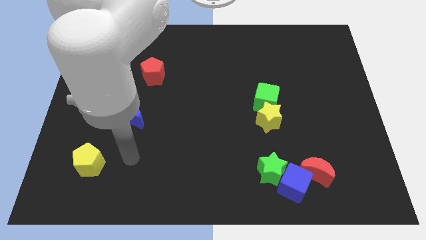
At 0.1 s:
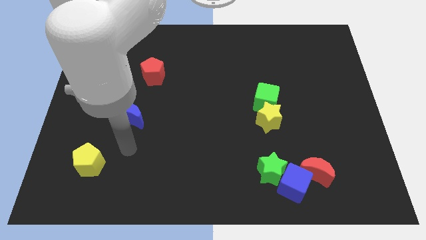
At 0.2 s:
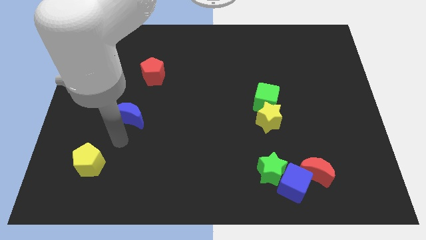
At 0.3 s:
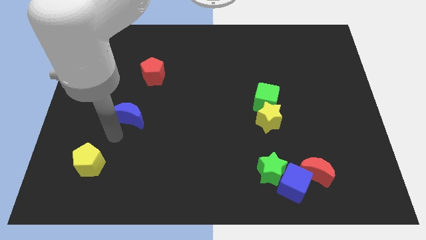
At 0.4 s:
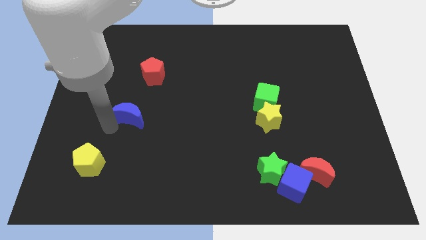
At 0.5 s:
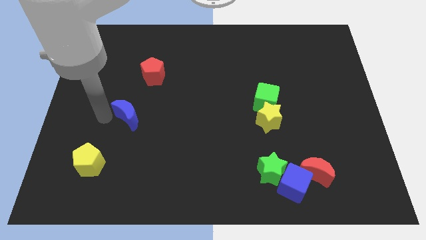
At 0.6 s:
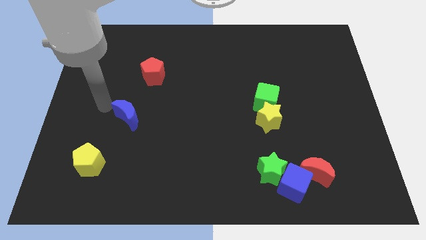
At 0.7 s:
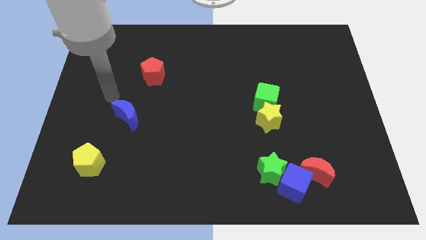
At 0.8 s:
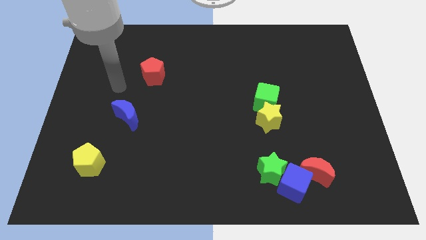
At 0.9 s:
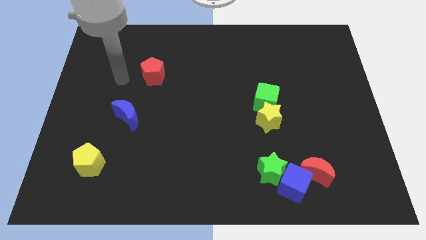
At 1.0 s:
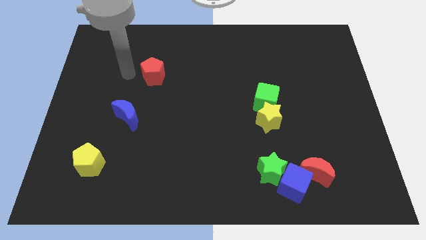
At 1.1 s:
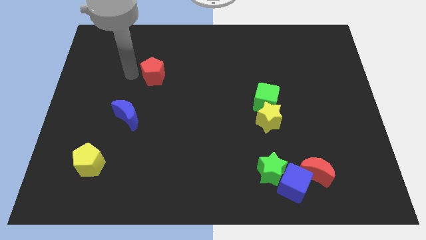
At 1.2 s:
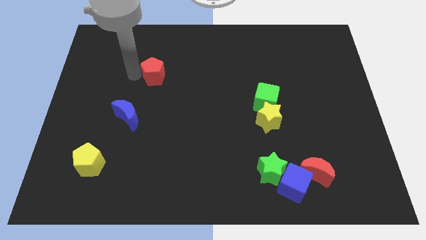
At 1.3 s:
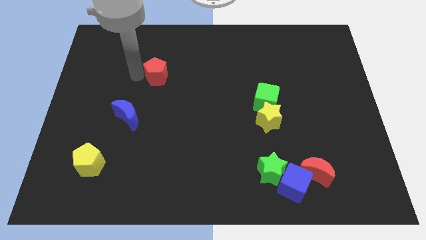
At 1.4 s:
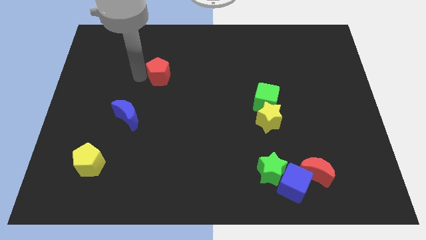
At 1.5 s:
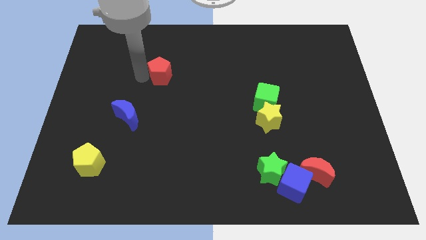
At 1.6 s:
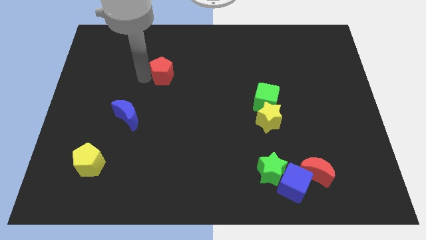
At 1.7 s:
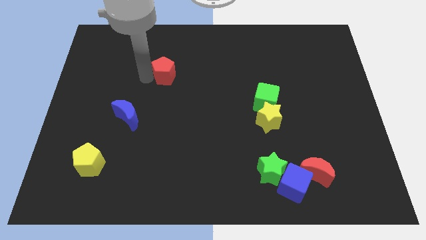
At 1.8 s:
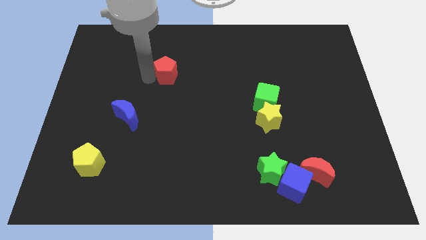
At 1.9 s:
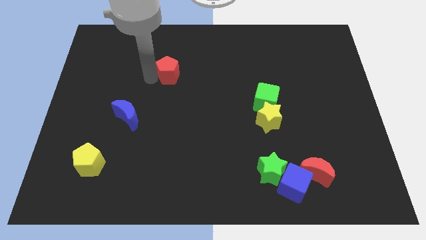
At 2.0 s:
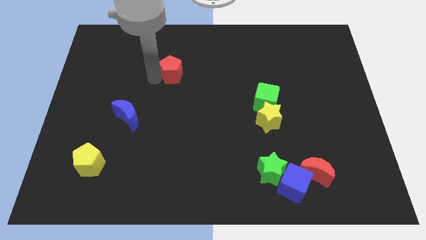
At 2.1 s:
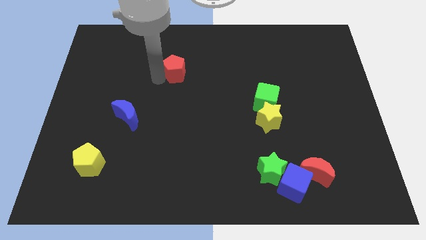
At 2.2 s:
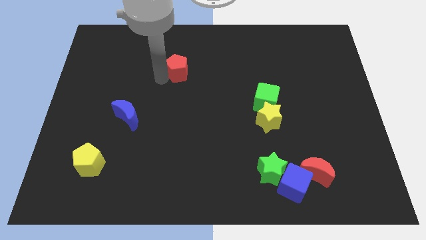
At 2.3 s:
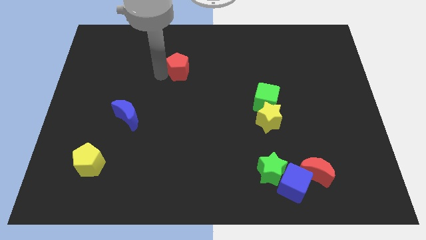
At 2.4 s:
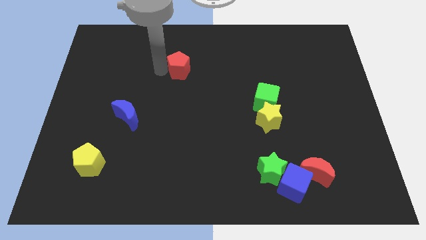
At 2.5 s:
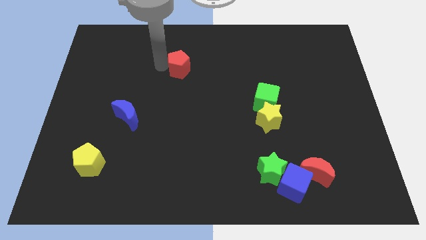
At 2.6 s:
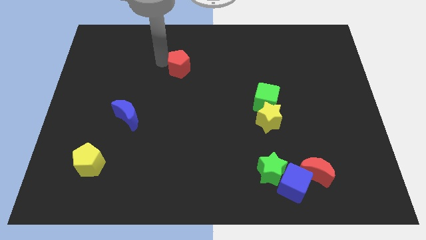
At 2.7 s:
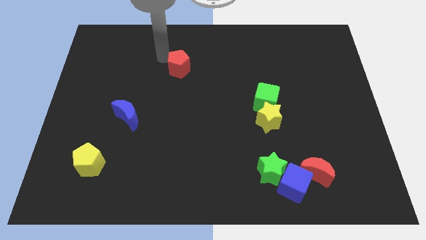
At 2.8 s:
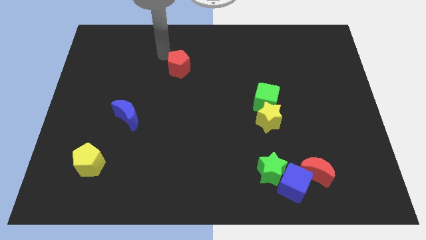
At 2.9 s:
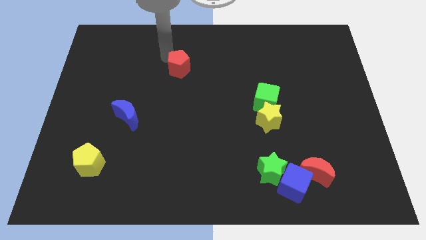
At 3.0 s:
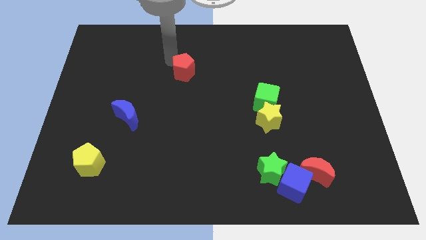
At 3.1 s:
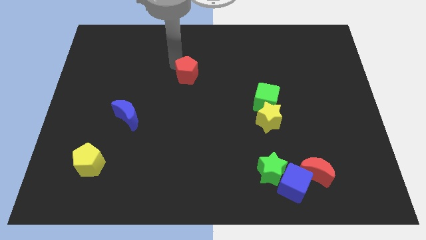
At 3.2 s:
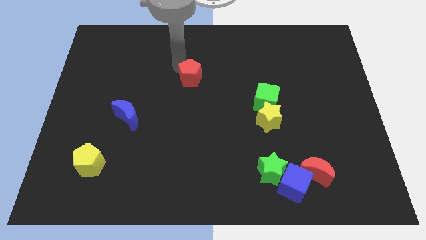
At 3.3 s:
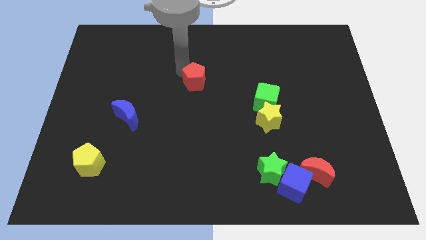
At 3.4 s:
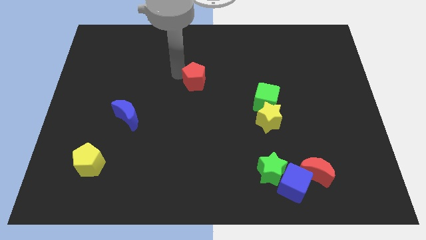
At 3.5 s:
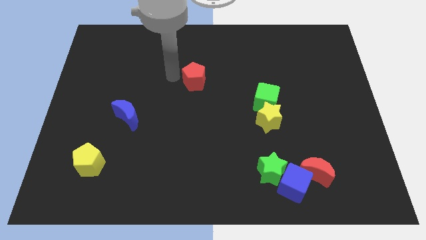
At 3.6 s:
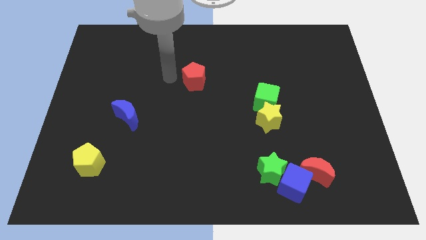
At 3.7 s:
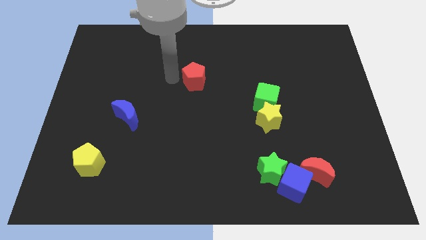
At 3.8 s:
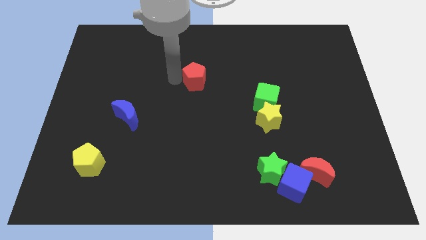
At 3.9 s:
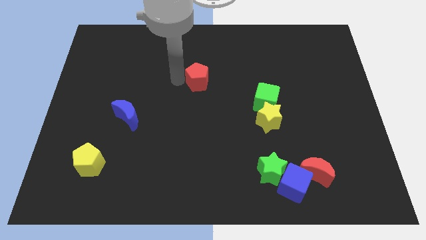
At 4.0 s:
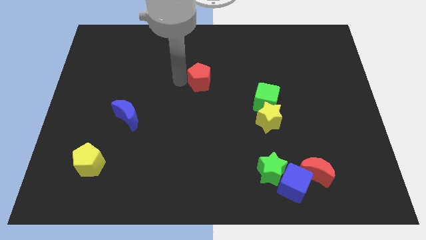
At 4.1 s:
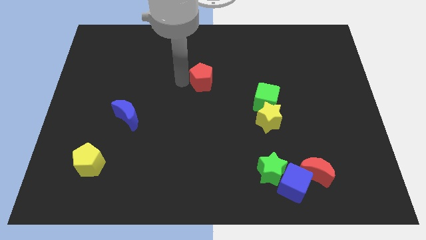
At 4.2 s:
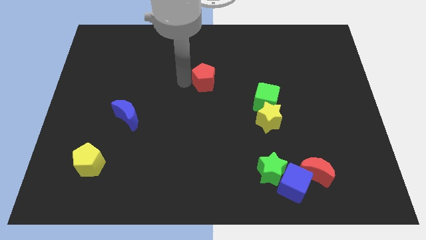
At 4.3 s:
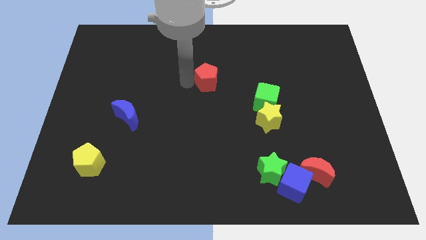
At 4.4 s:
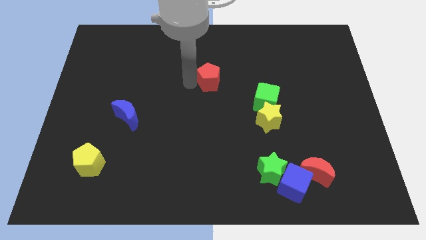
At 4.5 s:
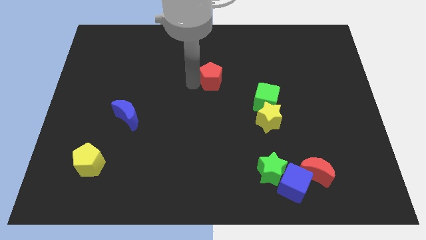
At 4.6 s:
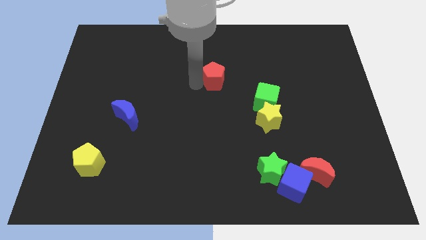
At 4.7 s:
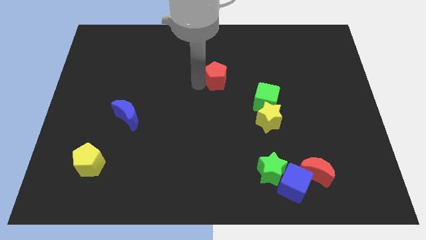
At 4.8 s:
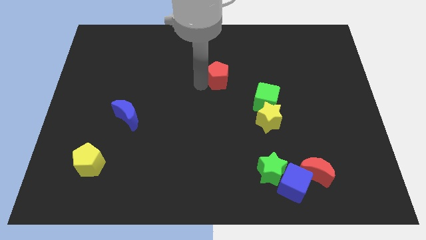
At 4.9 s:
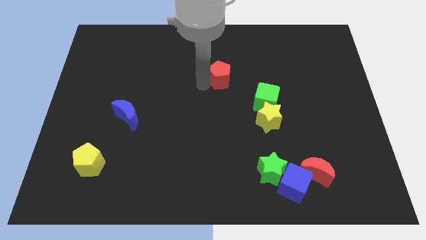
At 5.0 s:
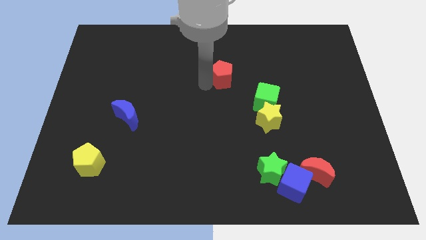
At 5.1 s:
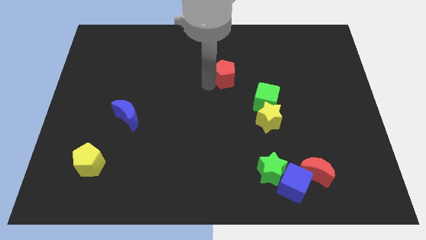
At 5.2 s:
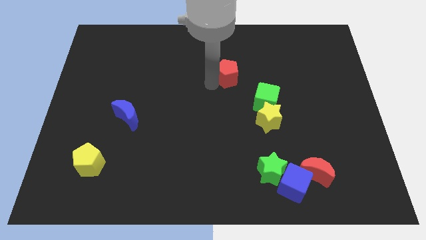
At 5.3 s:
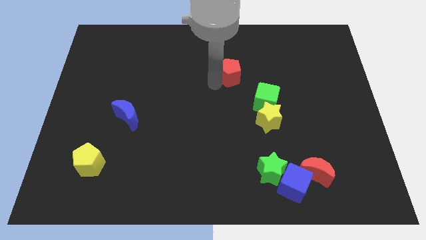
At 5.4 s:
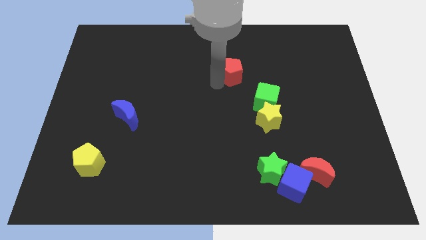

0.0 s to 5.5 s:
push the red pentagon right

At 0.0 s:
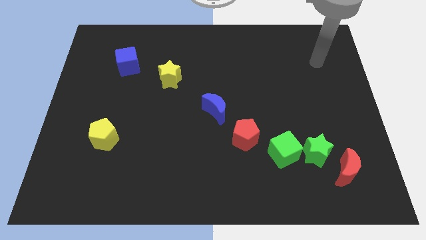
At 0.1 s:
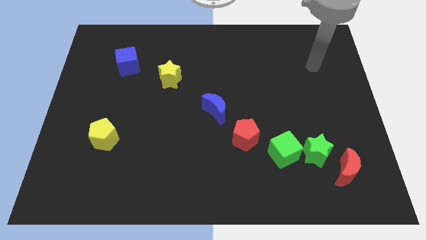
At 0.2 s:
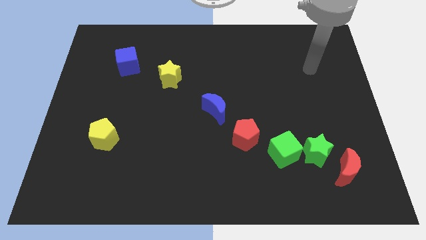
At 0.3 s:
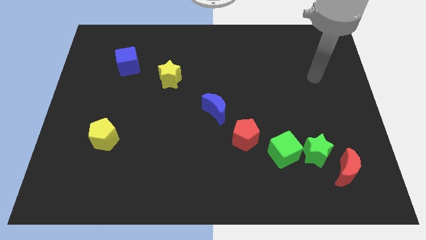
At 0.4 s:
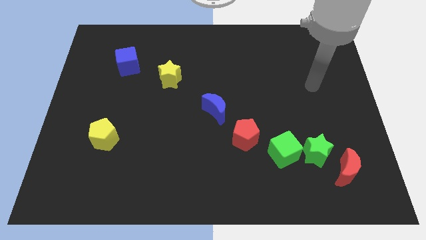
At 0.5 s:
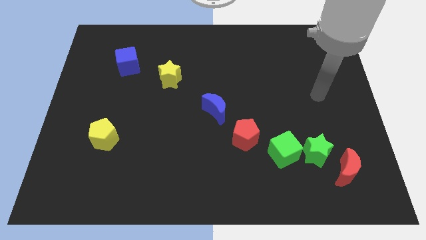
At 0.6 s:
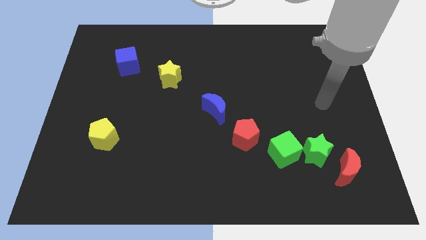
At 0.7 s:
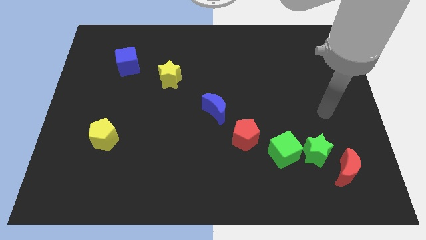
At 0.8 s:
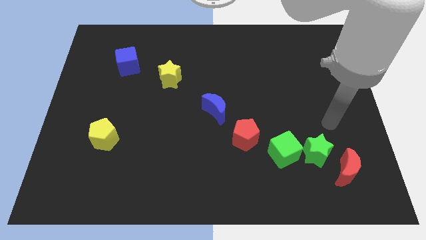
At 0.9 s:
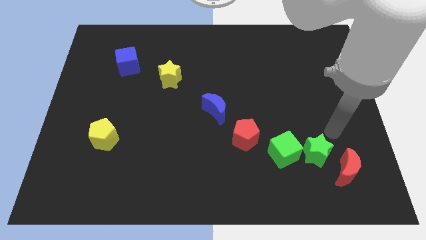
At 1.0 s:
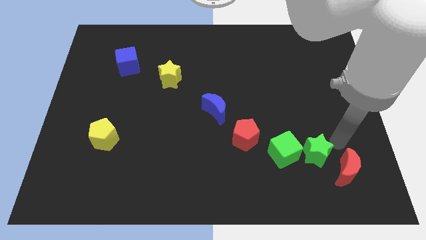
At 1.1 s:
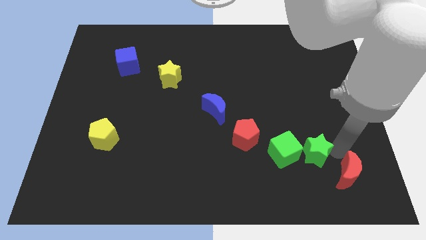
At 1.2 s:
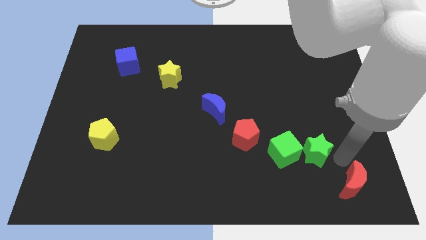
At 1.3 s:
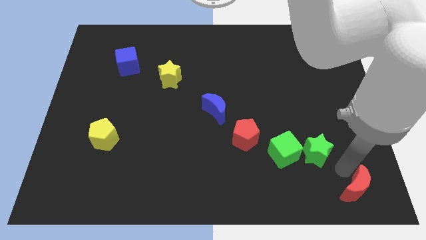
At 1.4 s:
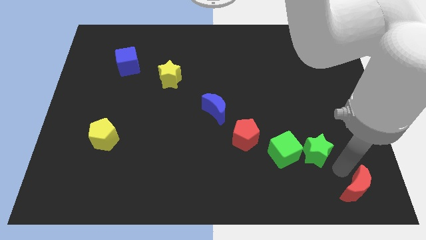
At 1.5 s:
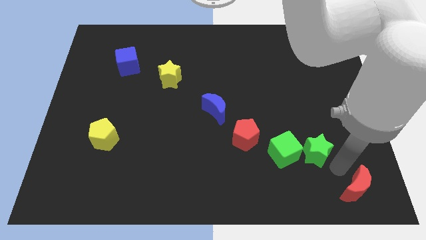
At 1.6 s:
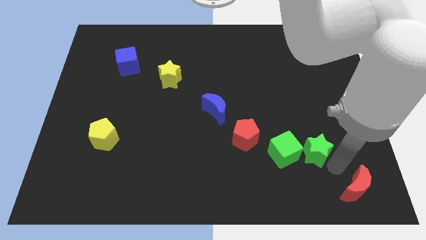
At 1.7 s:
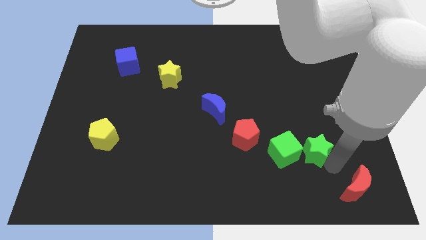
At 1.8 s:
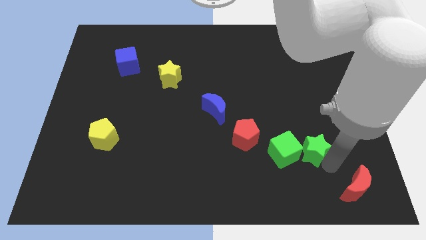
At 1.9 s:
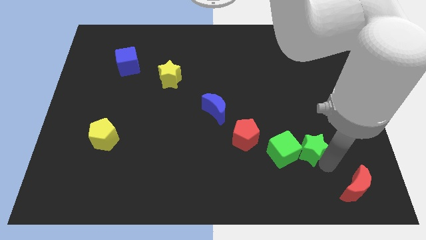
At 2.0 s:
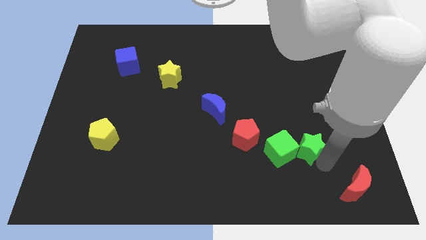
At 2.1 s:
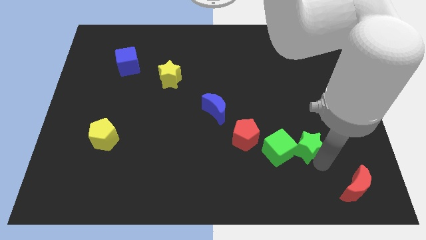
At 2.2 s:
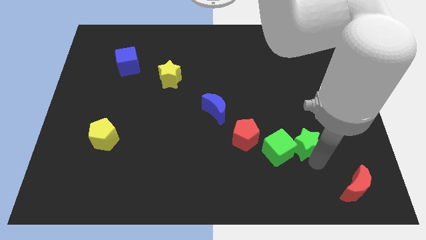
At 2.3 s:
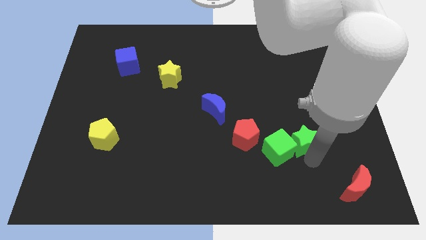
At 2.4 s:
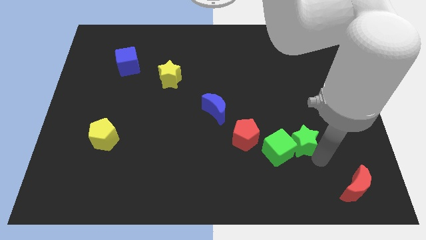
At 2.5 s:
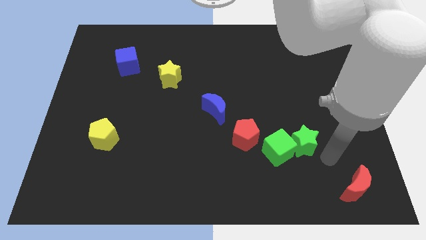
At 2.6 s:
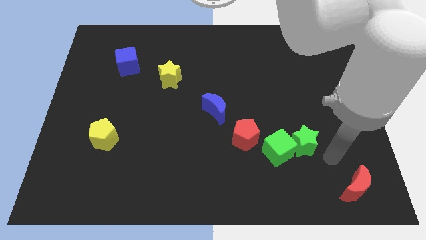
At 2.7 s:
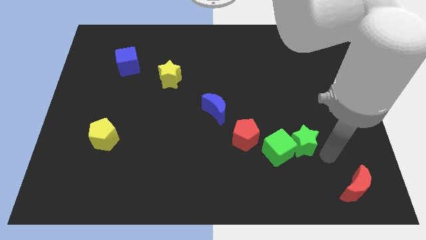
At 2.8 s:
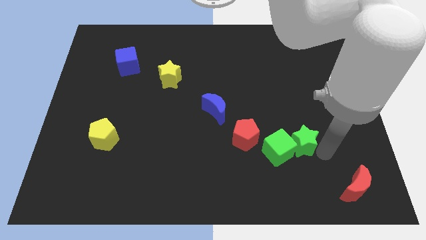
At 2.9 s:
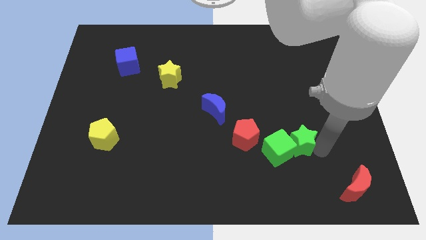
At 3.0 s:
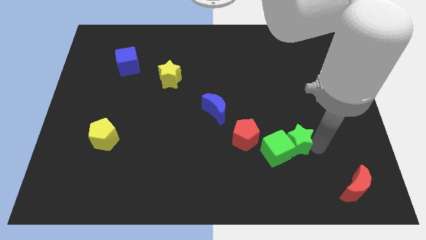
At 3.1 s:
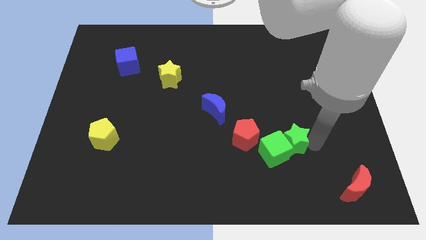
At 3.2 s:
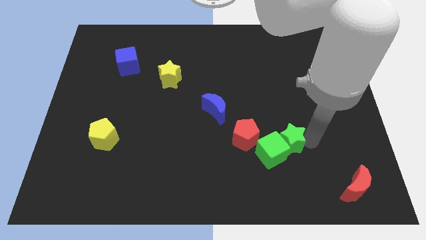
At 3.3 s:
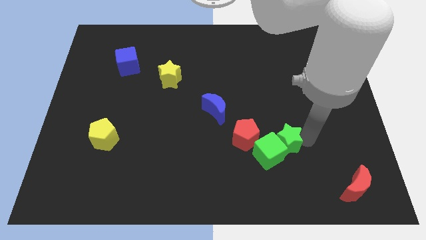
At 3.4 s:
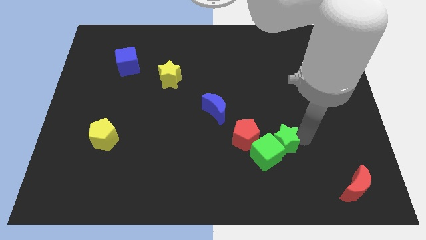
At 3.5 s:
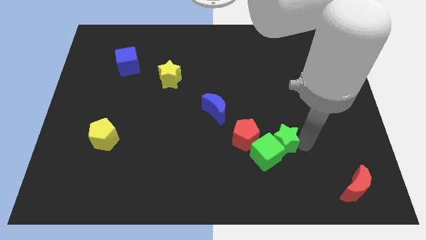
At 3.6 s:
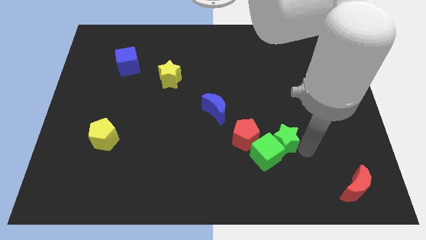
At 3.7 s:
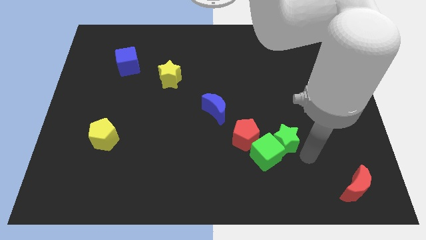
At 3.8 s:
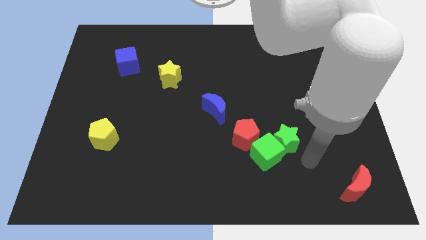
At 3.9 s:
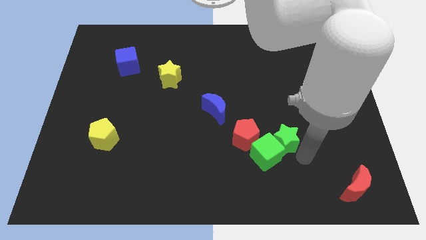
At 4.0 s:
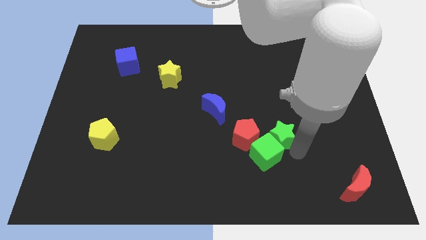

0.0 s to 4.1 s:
push the green star a bit left
